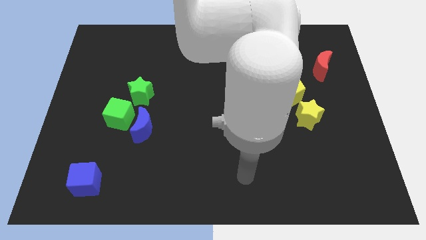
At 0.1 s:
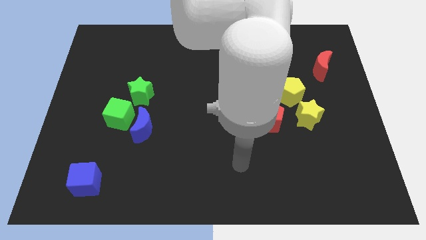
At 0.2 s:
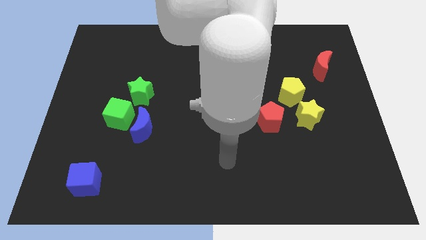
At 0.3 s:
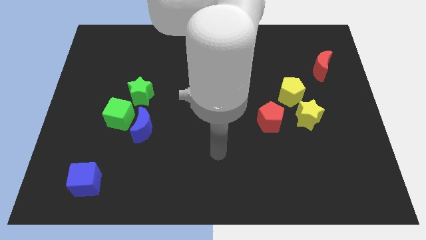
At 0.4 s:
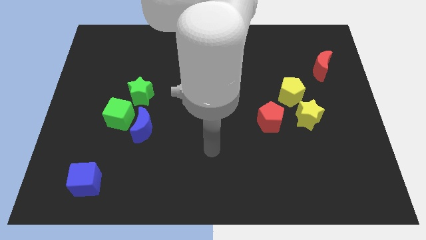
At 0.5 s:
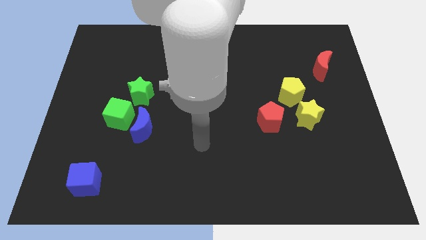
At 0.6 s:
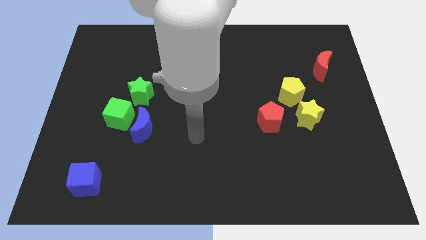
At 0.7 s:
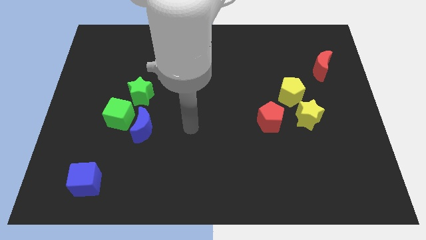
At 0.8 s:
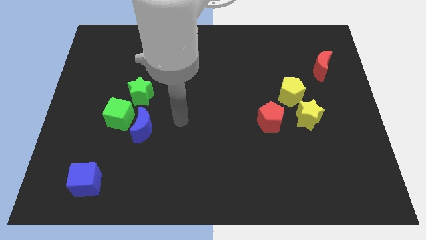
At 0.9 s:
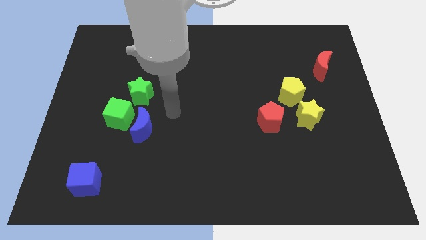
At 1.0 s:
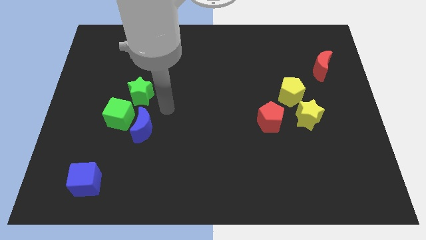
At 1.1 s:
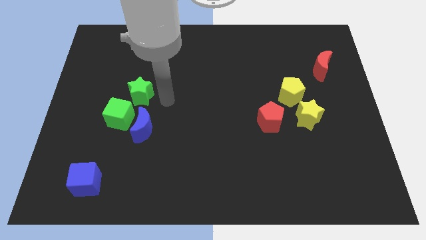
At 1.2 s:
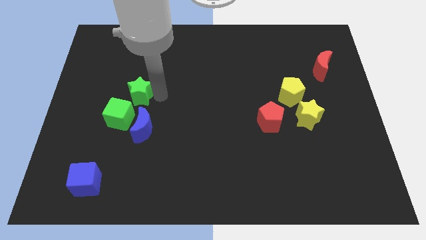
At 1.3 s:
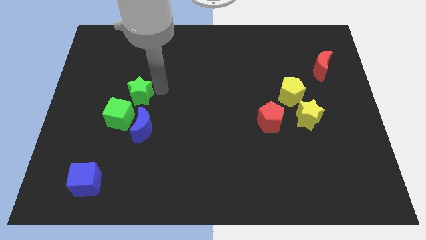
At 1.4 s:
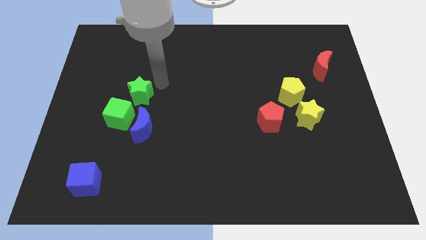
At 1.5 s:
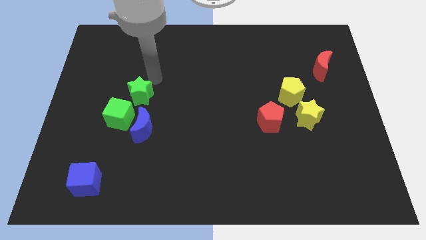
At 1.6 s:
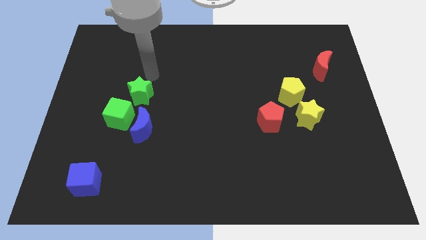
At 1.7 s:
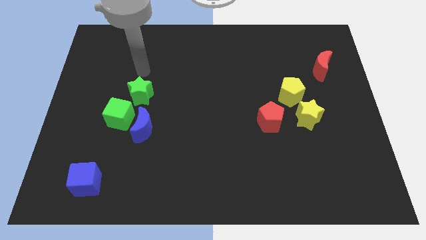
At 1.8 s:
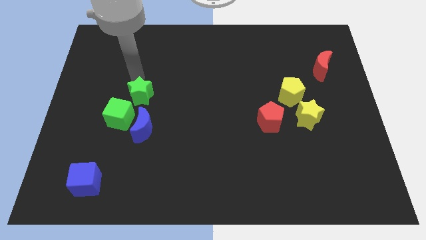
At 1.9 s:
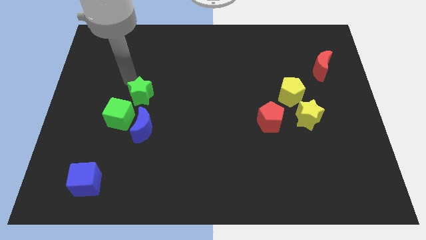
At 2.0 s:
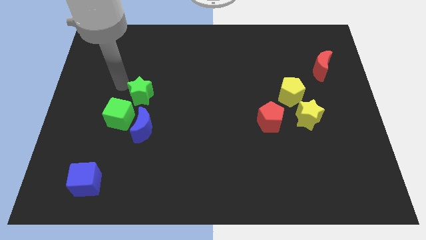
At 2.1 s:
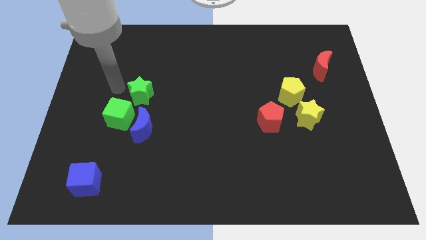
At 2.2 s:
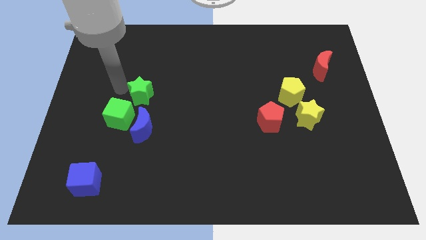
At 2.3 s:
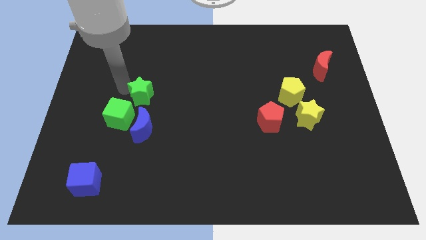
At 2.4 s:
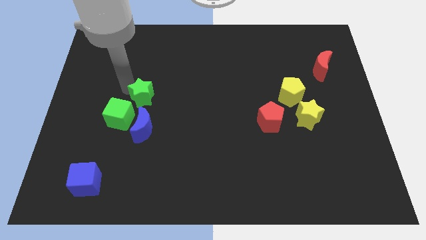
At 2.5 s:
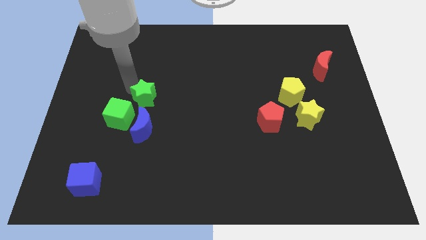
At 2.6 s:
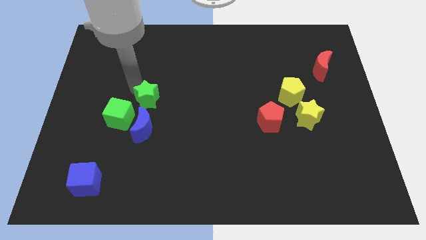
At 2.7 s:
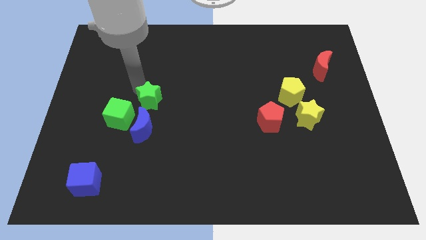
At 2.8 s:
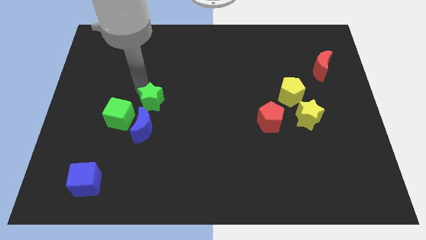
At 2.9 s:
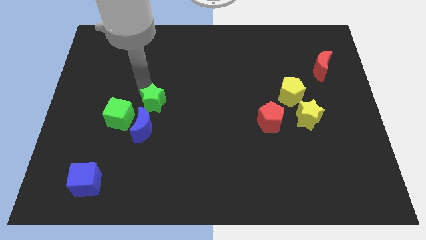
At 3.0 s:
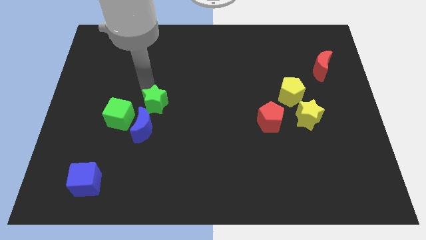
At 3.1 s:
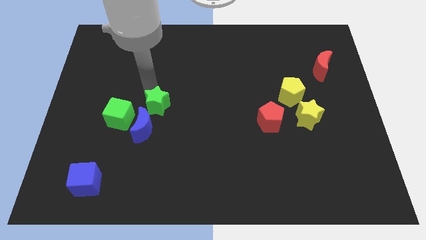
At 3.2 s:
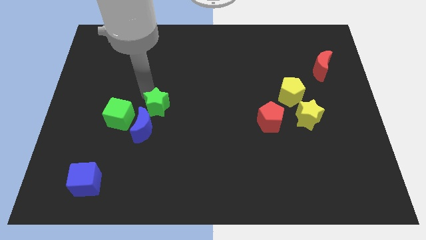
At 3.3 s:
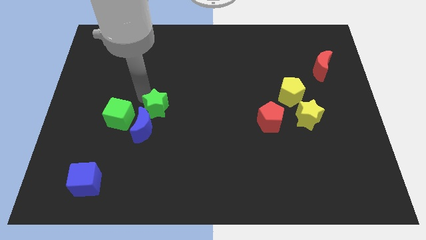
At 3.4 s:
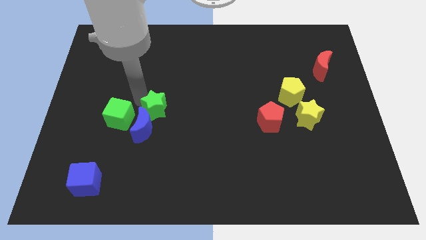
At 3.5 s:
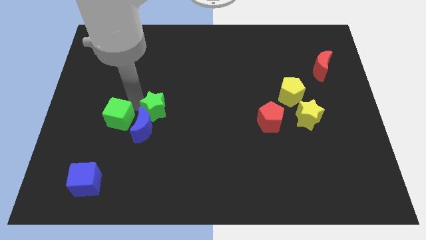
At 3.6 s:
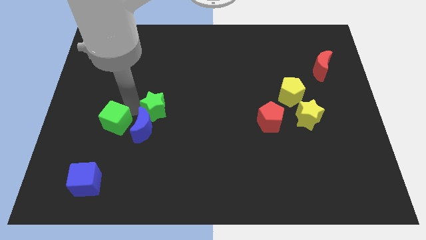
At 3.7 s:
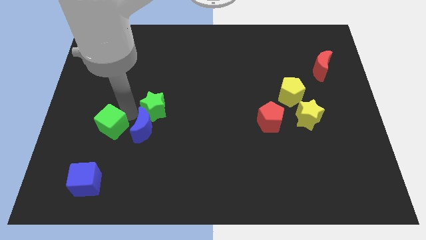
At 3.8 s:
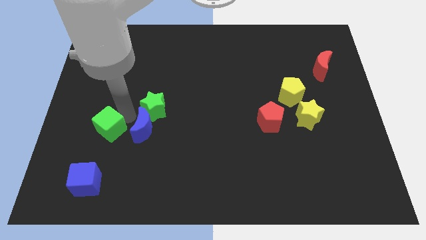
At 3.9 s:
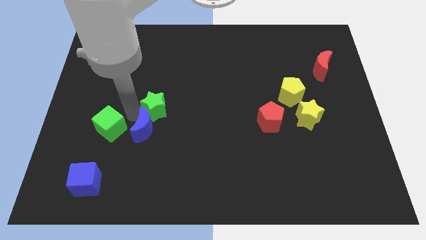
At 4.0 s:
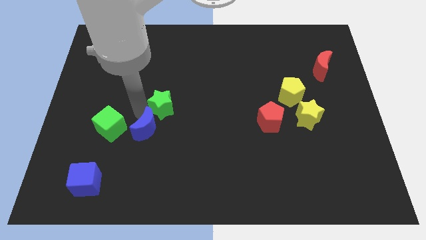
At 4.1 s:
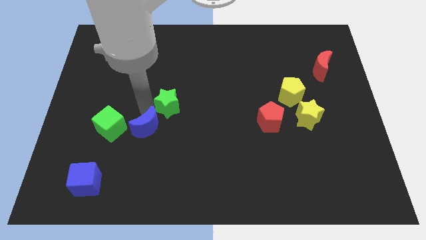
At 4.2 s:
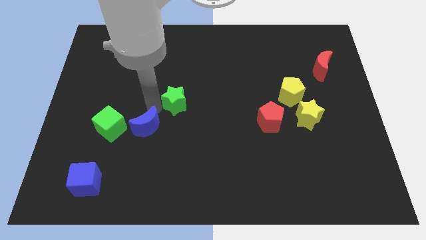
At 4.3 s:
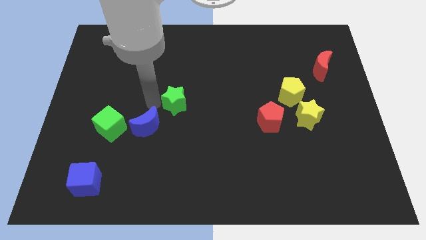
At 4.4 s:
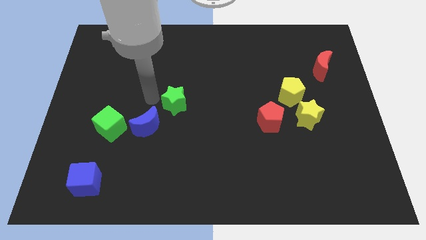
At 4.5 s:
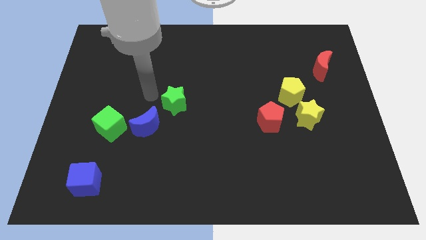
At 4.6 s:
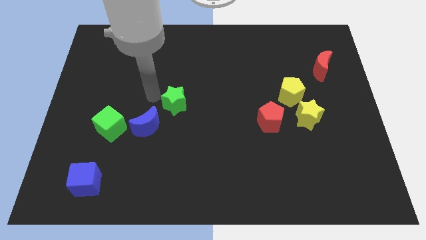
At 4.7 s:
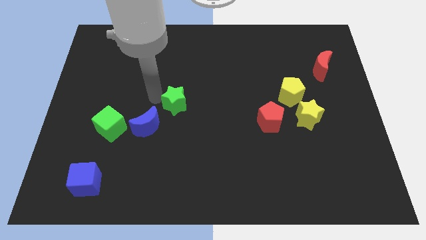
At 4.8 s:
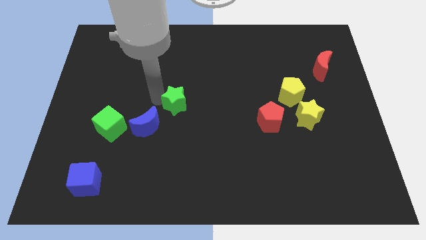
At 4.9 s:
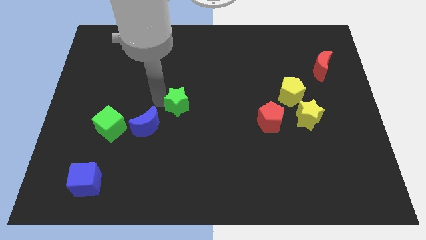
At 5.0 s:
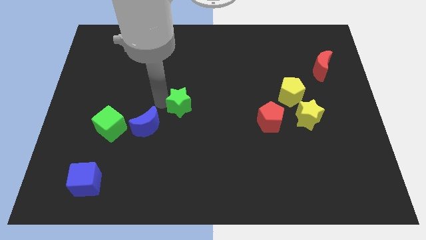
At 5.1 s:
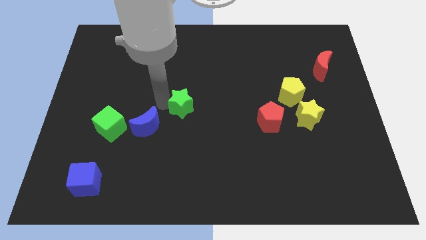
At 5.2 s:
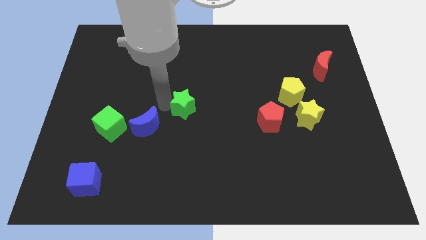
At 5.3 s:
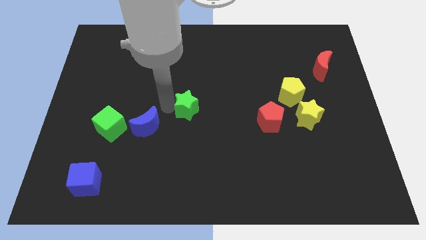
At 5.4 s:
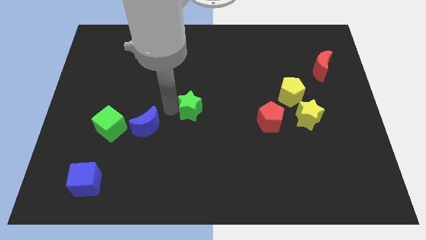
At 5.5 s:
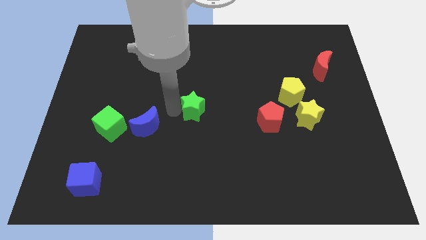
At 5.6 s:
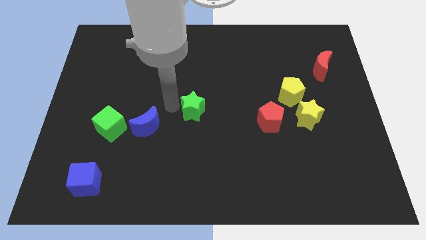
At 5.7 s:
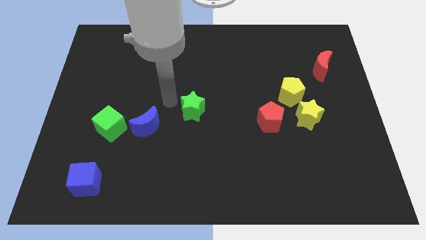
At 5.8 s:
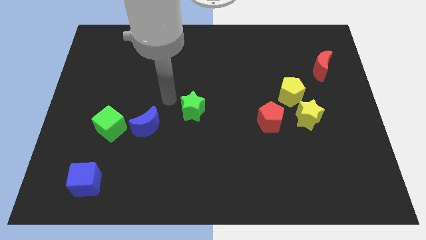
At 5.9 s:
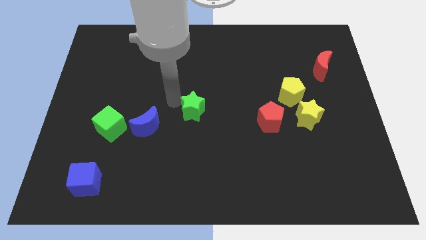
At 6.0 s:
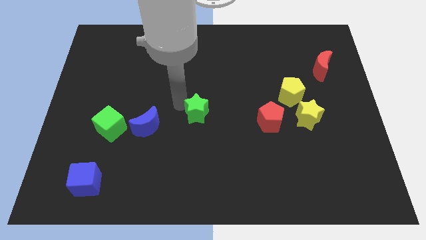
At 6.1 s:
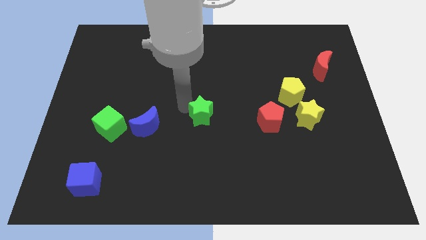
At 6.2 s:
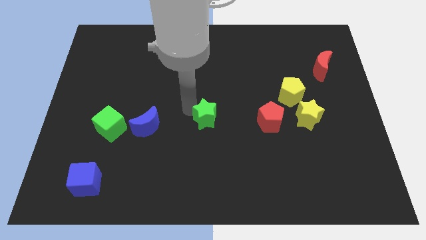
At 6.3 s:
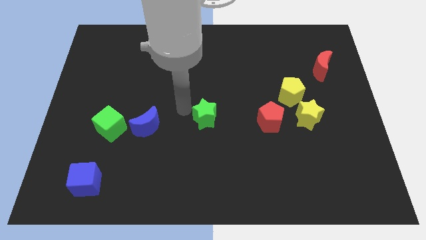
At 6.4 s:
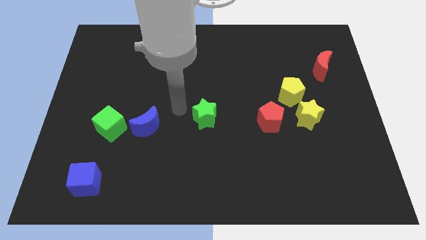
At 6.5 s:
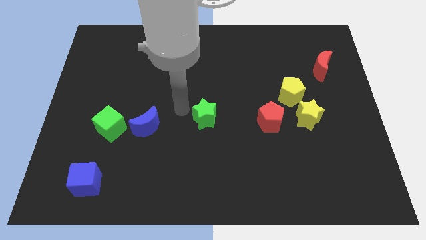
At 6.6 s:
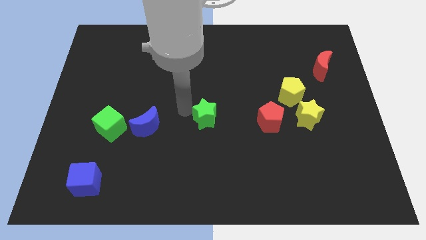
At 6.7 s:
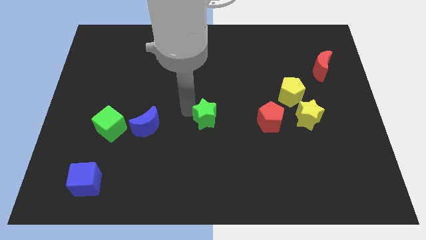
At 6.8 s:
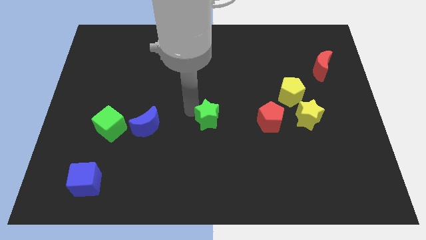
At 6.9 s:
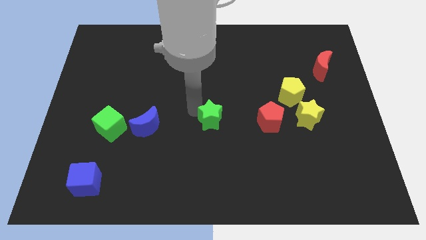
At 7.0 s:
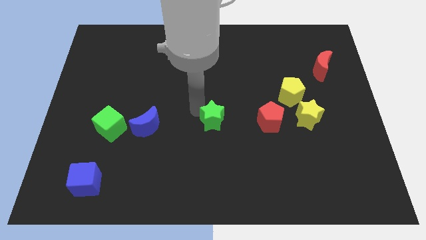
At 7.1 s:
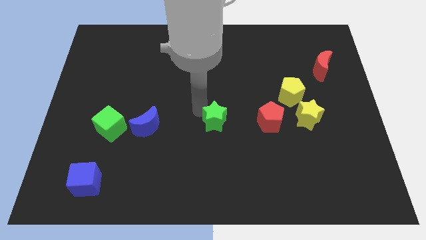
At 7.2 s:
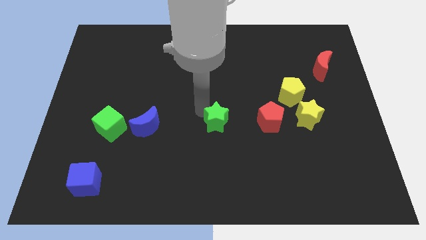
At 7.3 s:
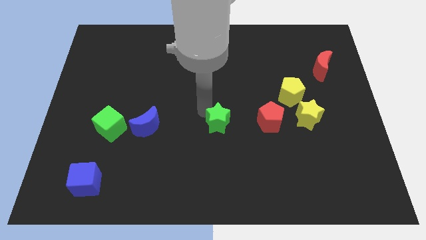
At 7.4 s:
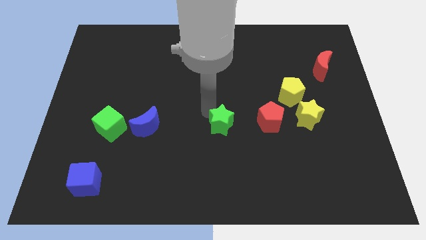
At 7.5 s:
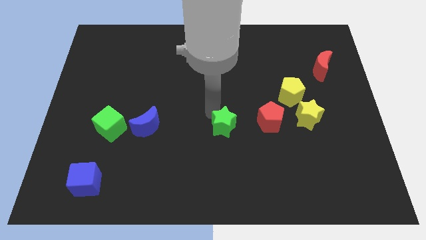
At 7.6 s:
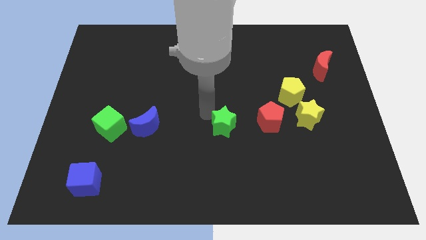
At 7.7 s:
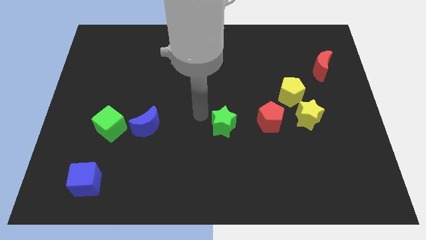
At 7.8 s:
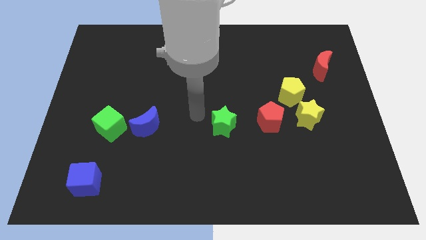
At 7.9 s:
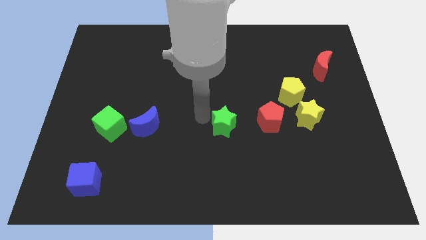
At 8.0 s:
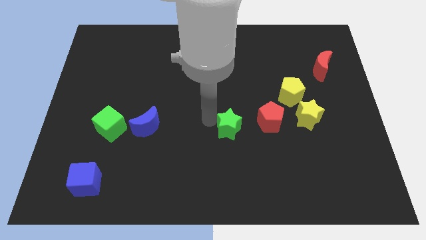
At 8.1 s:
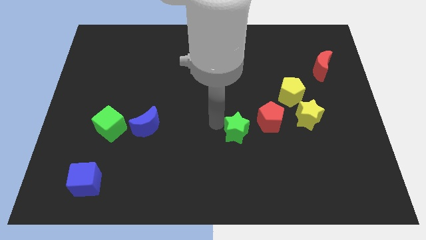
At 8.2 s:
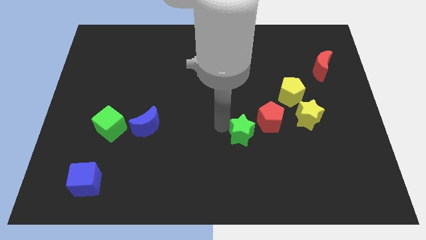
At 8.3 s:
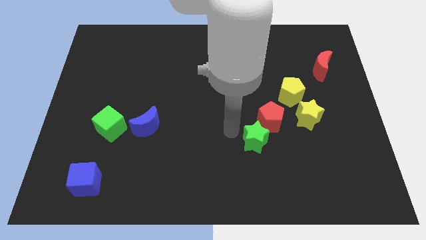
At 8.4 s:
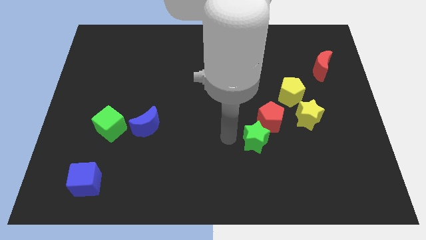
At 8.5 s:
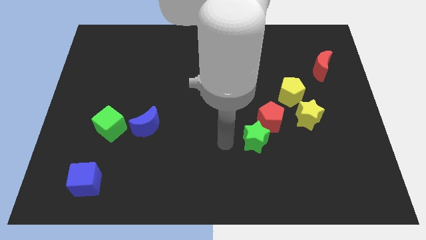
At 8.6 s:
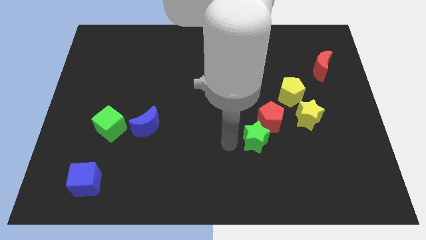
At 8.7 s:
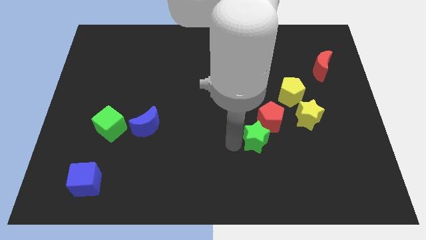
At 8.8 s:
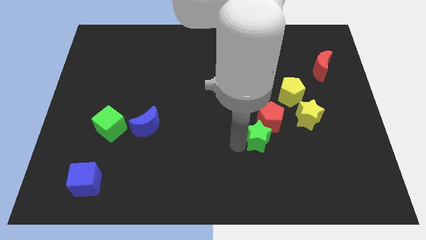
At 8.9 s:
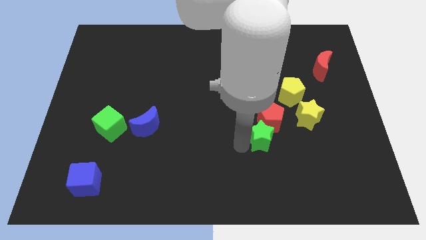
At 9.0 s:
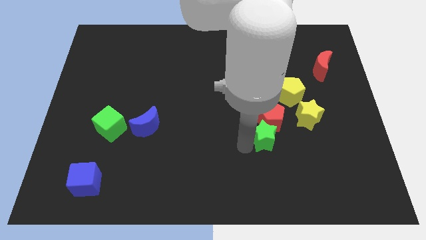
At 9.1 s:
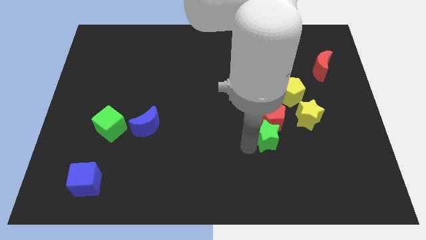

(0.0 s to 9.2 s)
push the green star diagonally down and to the left of the yellow star
